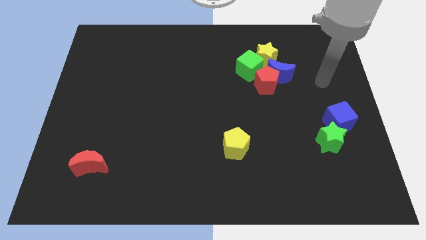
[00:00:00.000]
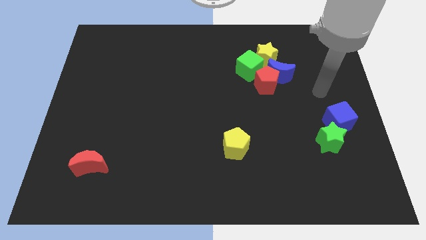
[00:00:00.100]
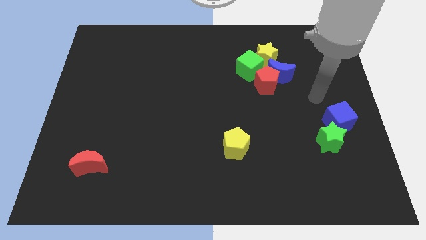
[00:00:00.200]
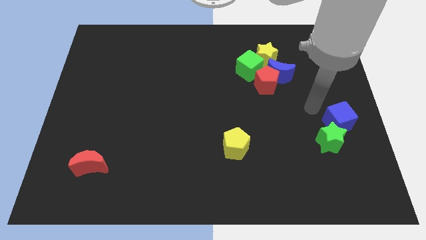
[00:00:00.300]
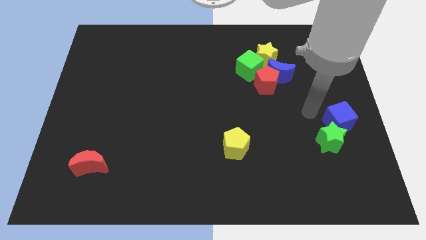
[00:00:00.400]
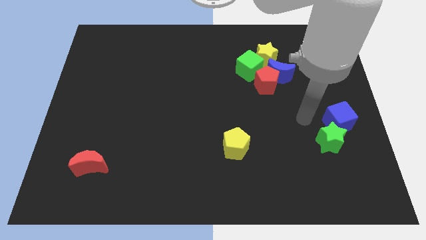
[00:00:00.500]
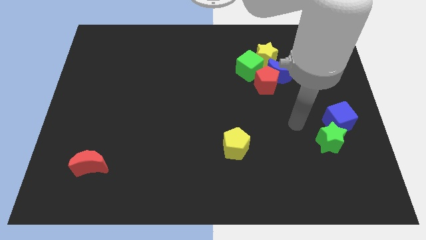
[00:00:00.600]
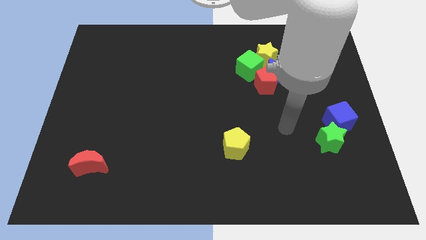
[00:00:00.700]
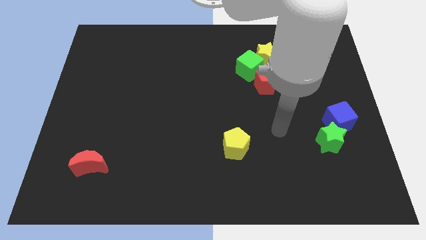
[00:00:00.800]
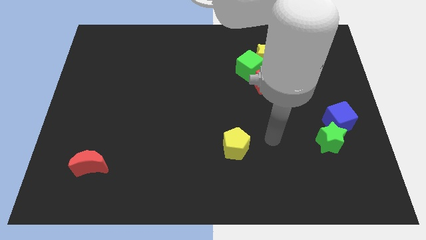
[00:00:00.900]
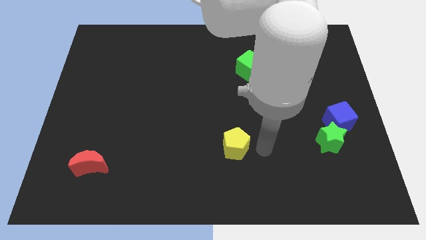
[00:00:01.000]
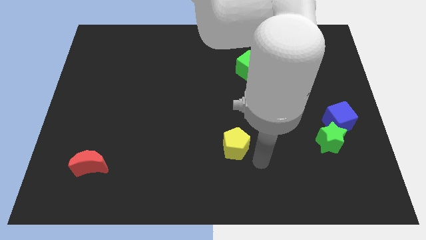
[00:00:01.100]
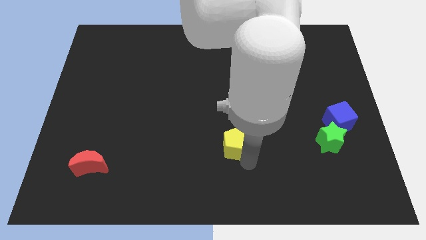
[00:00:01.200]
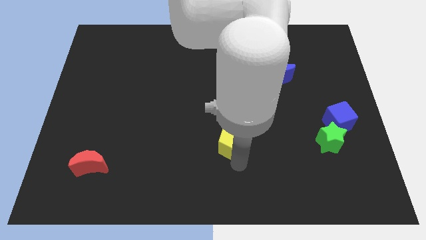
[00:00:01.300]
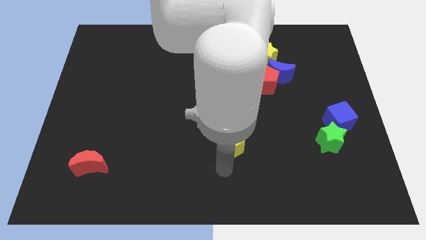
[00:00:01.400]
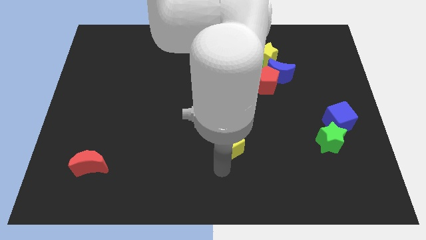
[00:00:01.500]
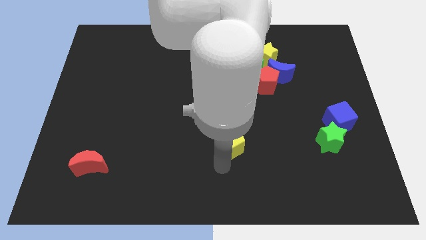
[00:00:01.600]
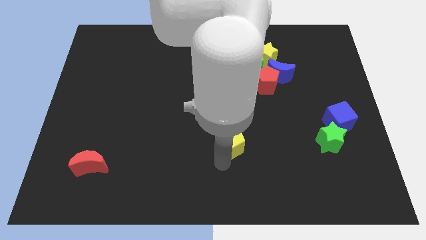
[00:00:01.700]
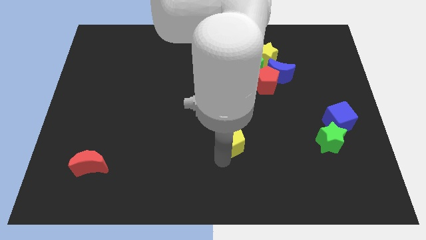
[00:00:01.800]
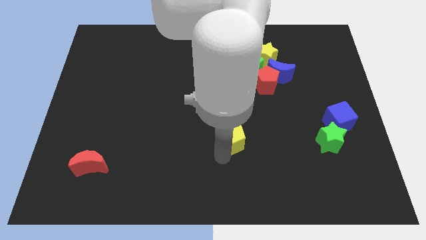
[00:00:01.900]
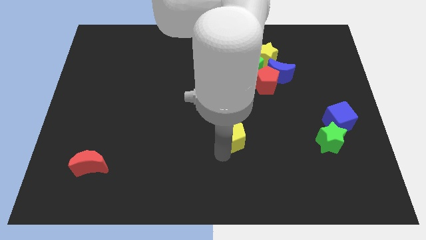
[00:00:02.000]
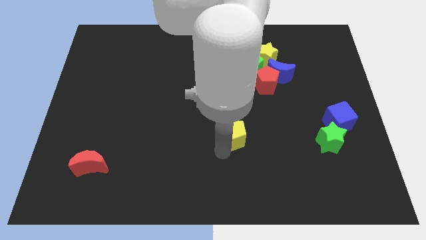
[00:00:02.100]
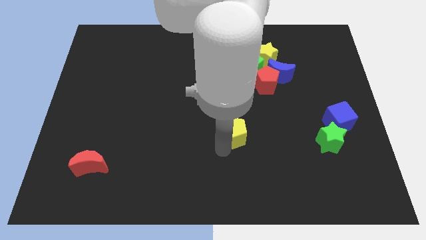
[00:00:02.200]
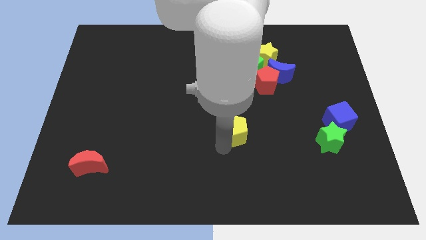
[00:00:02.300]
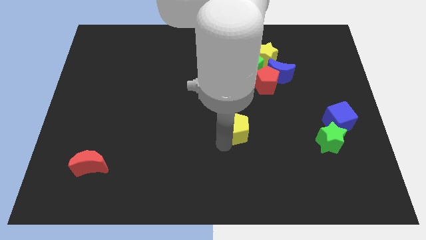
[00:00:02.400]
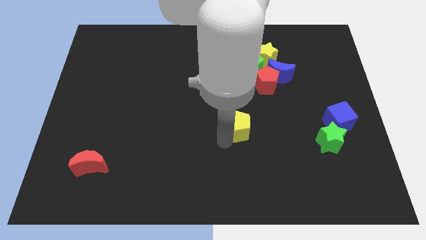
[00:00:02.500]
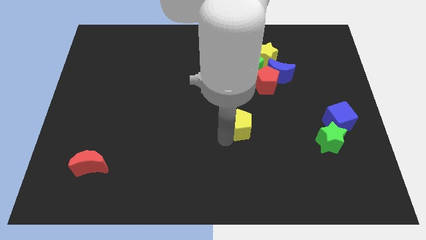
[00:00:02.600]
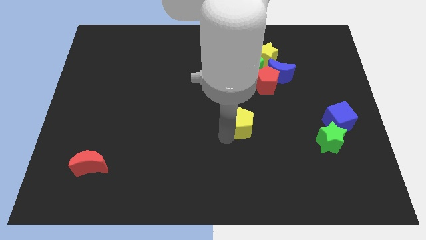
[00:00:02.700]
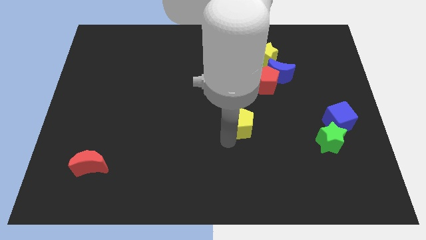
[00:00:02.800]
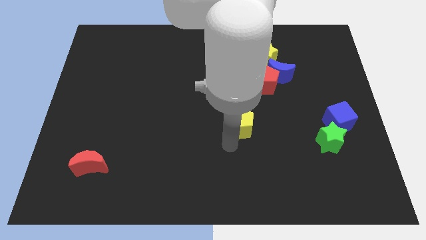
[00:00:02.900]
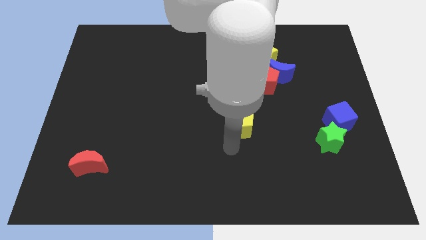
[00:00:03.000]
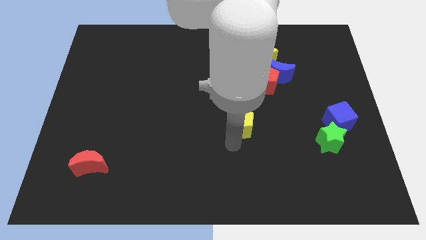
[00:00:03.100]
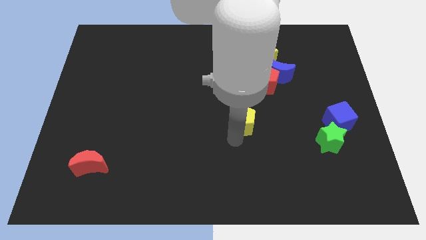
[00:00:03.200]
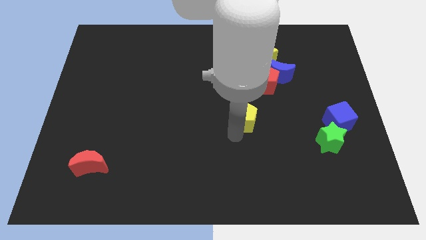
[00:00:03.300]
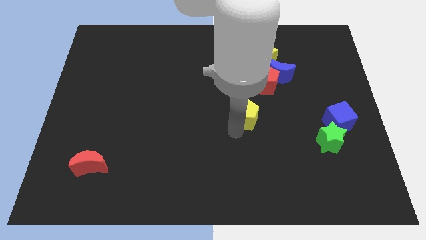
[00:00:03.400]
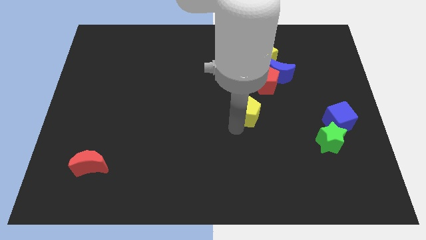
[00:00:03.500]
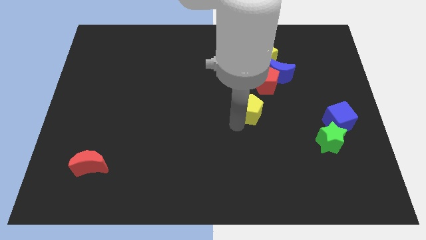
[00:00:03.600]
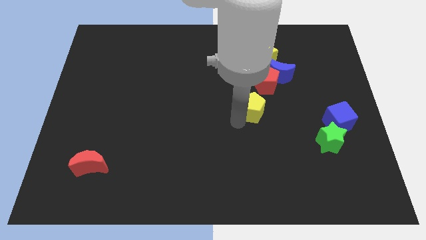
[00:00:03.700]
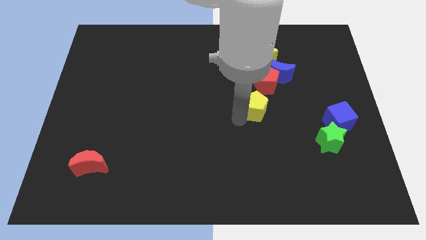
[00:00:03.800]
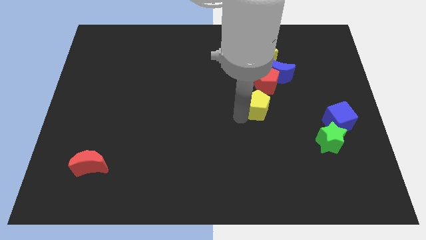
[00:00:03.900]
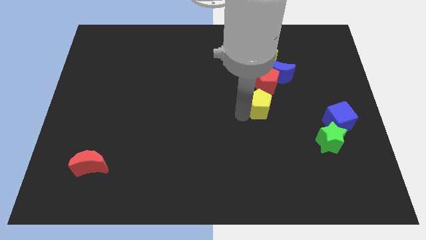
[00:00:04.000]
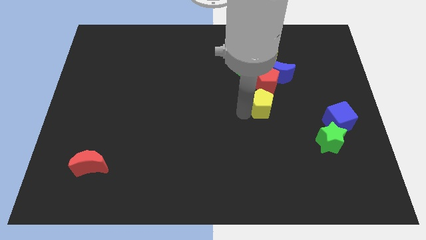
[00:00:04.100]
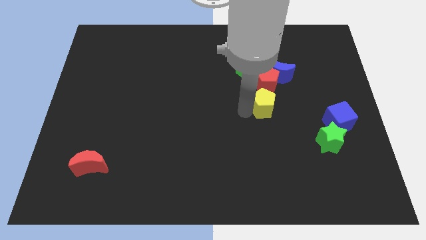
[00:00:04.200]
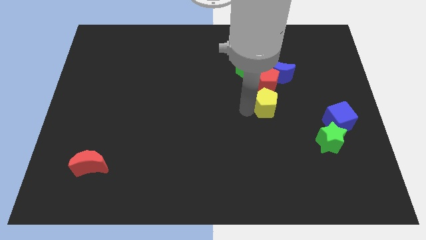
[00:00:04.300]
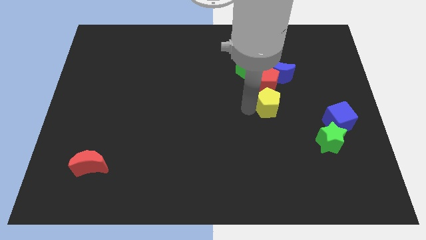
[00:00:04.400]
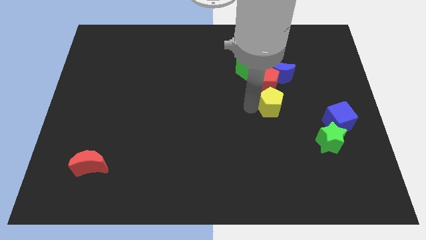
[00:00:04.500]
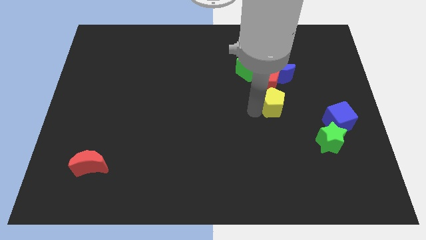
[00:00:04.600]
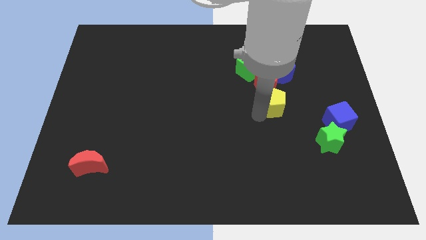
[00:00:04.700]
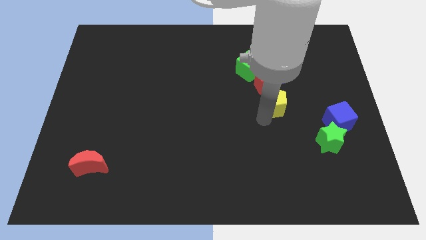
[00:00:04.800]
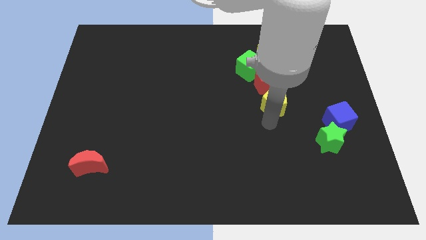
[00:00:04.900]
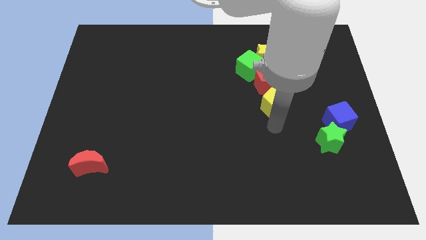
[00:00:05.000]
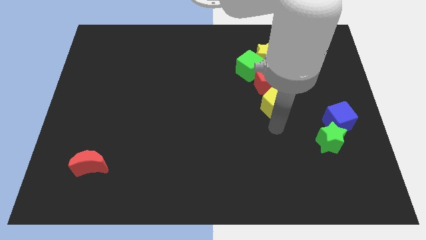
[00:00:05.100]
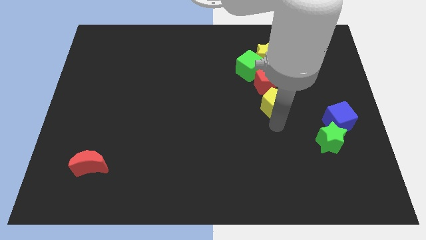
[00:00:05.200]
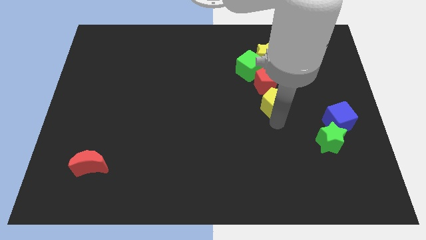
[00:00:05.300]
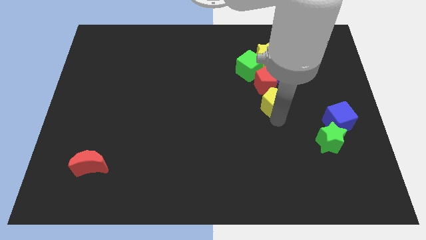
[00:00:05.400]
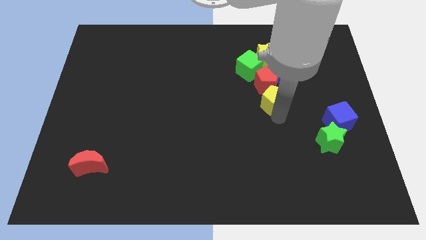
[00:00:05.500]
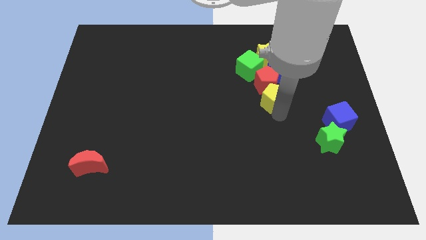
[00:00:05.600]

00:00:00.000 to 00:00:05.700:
slide the yellow pentagon to the bottom right side of the green cube
